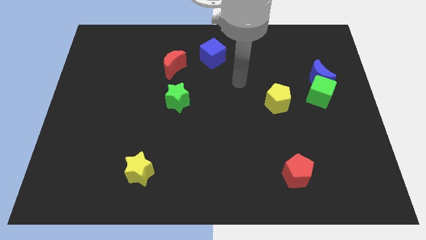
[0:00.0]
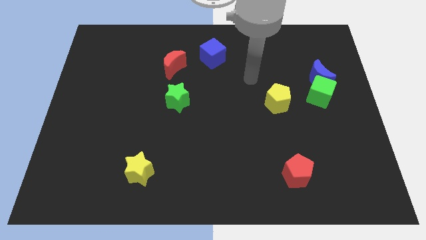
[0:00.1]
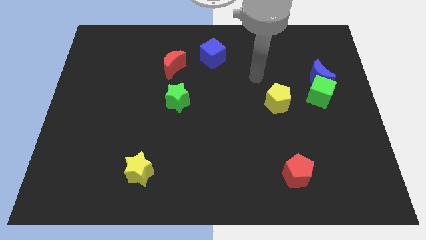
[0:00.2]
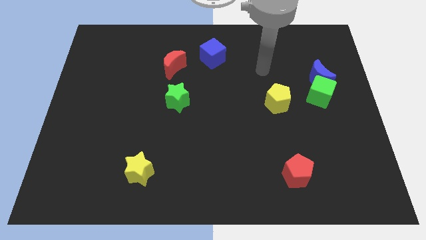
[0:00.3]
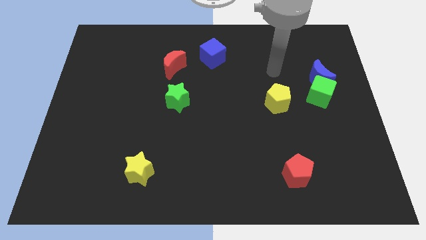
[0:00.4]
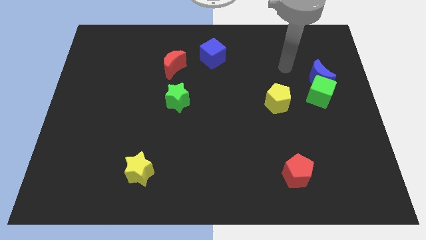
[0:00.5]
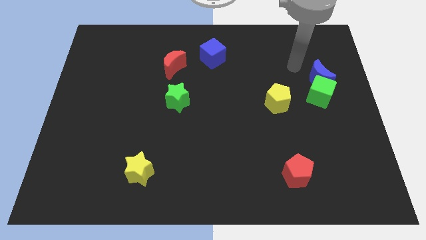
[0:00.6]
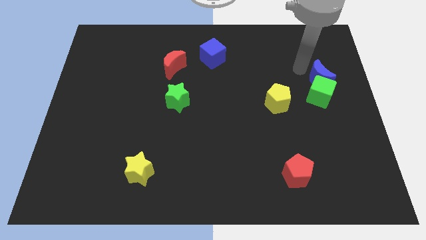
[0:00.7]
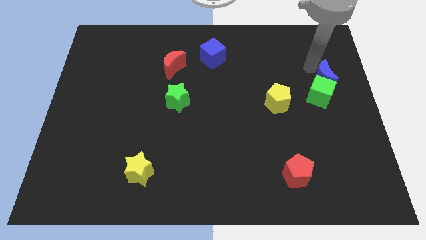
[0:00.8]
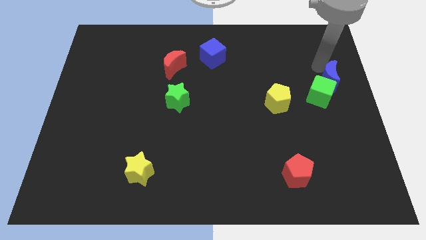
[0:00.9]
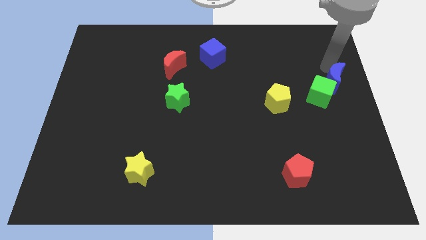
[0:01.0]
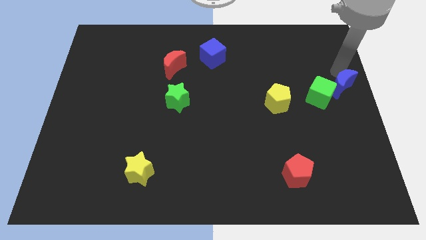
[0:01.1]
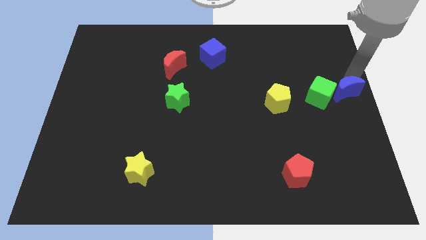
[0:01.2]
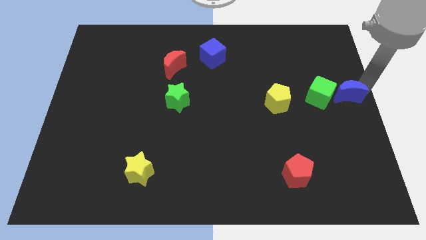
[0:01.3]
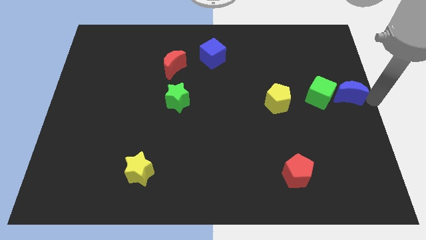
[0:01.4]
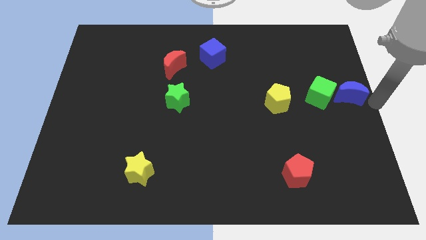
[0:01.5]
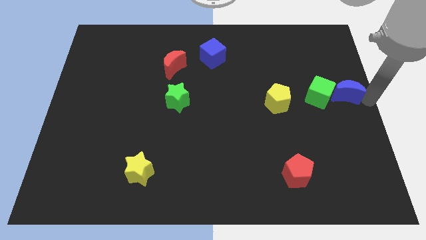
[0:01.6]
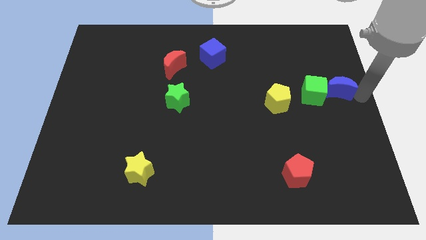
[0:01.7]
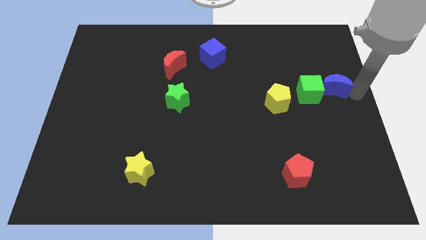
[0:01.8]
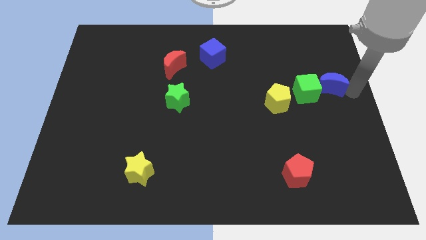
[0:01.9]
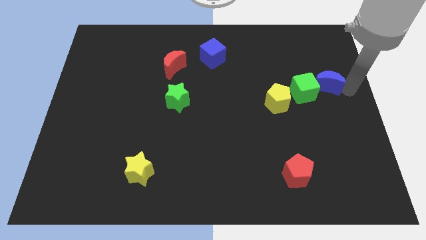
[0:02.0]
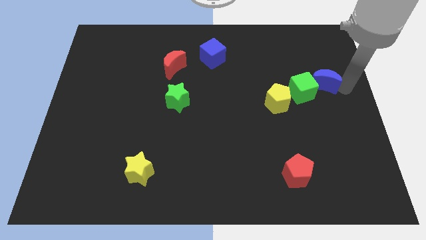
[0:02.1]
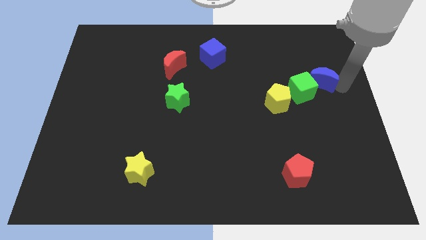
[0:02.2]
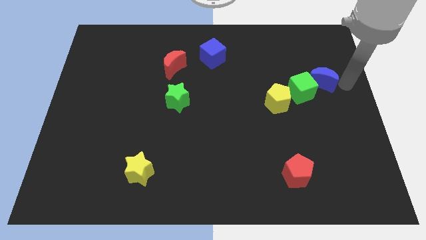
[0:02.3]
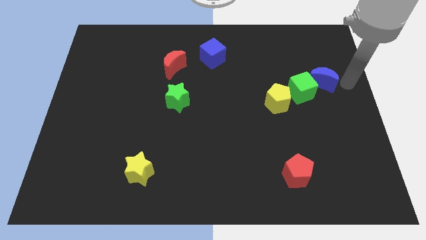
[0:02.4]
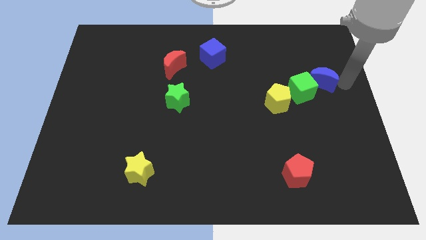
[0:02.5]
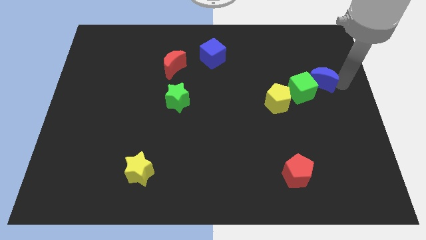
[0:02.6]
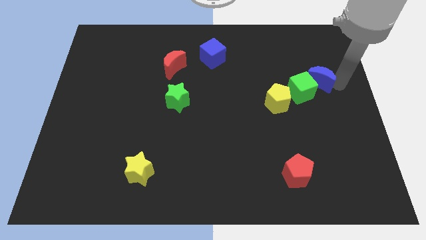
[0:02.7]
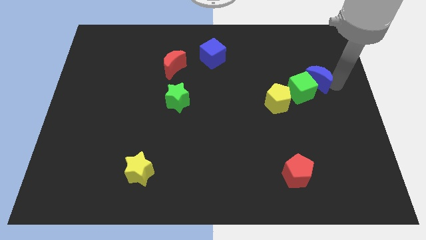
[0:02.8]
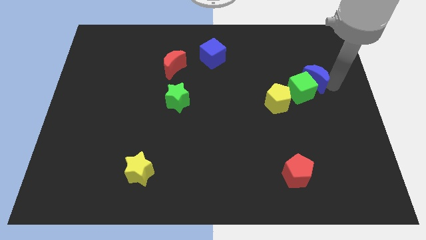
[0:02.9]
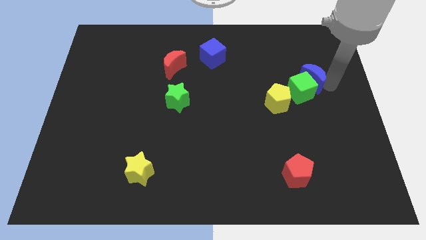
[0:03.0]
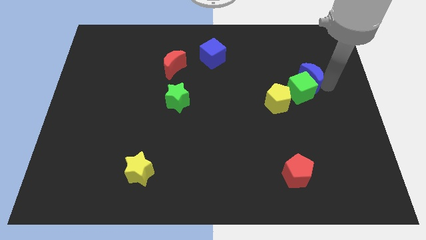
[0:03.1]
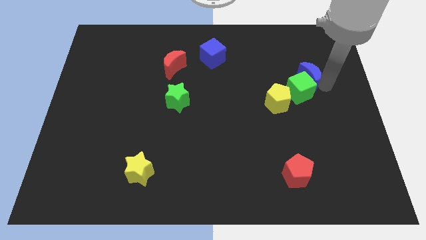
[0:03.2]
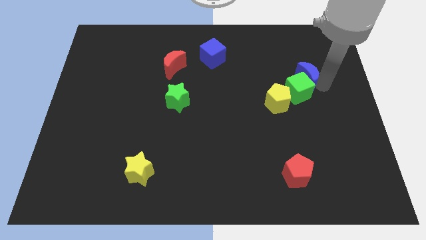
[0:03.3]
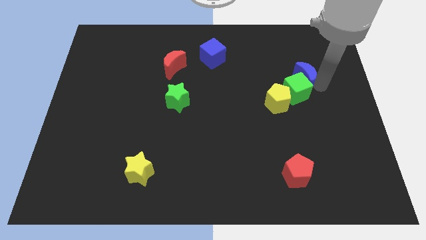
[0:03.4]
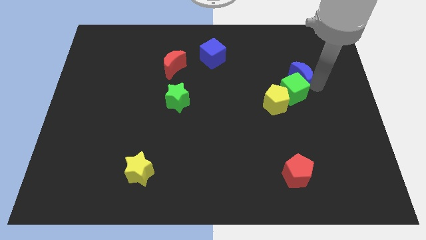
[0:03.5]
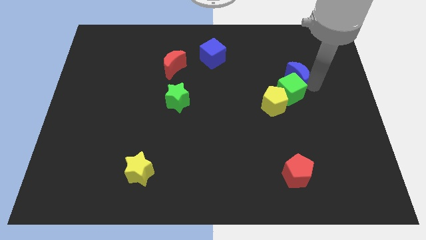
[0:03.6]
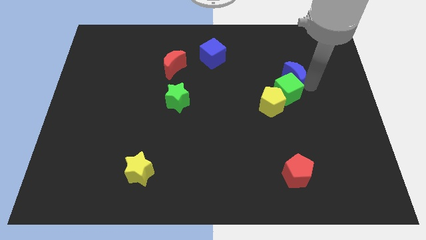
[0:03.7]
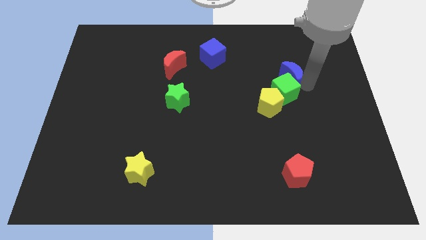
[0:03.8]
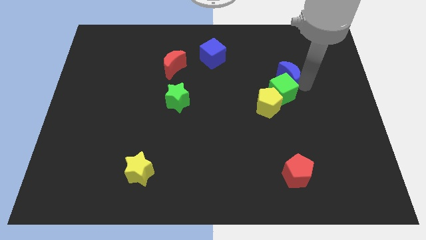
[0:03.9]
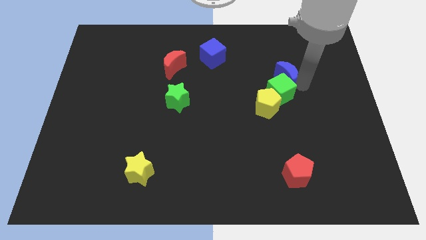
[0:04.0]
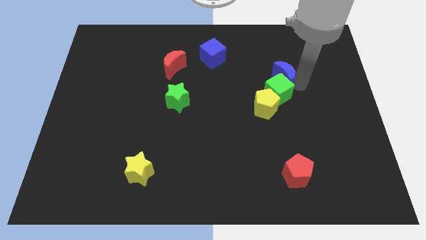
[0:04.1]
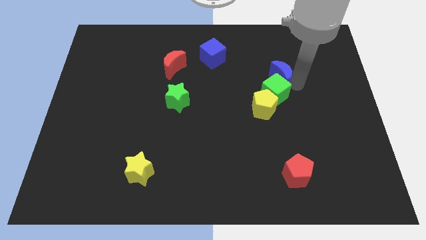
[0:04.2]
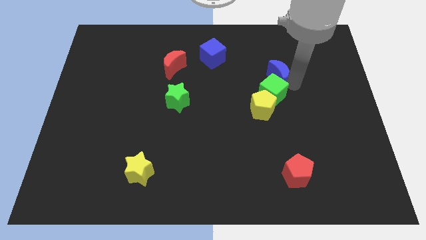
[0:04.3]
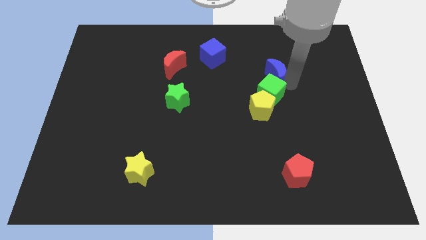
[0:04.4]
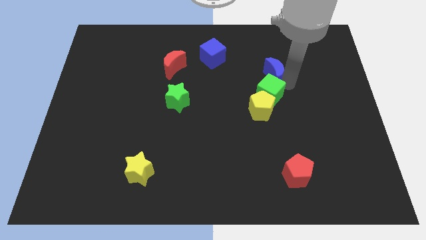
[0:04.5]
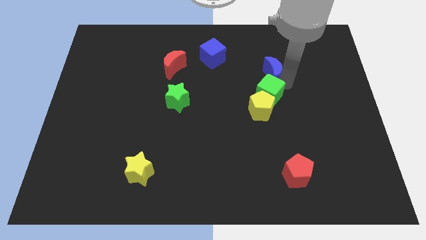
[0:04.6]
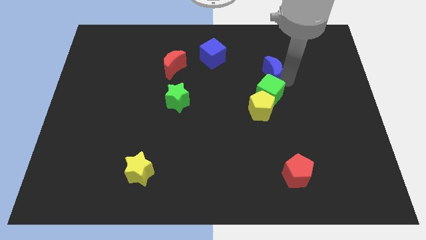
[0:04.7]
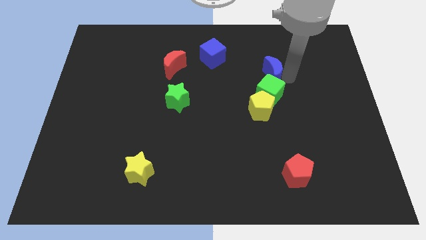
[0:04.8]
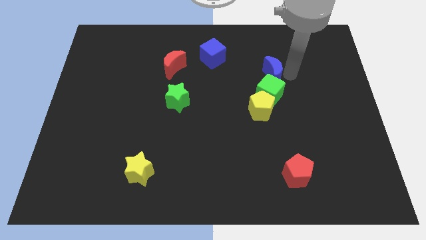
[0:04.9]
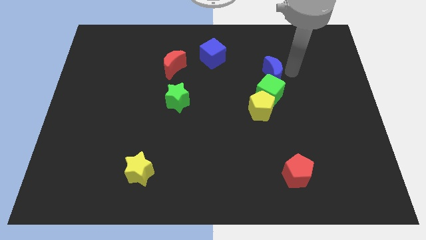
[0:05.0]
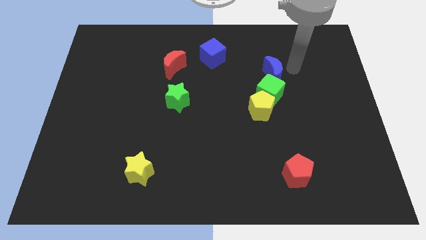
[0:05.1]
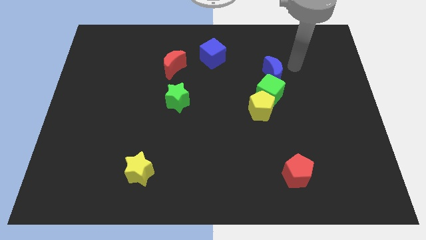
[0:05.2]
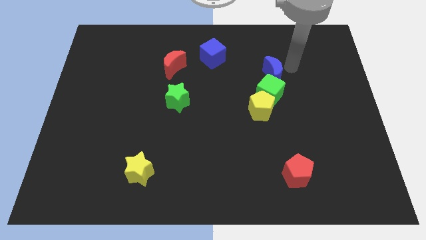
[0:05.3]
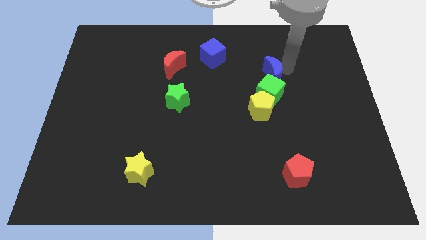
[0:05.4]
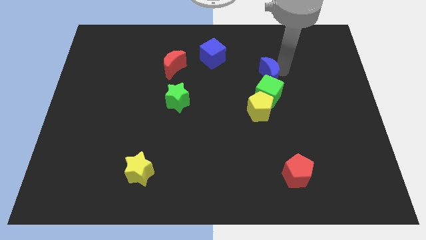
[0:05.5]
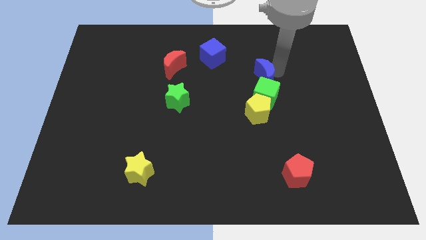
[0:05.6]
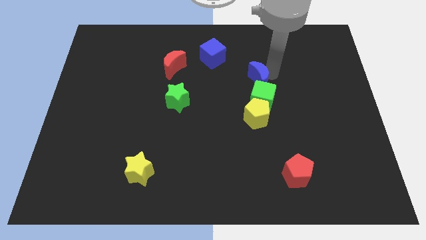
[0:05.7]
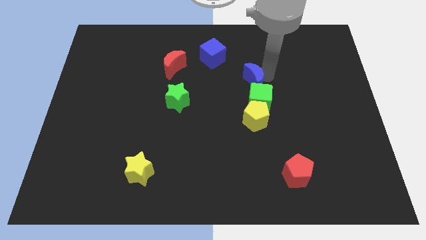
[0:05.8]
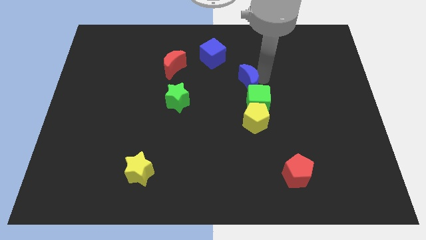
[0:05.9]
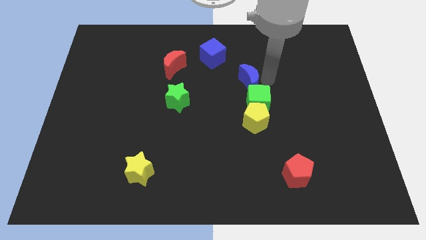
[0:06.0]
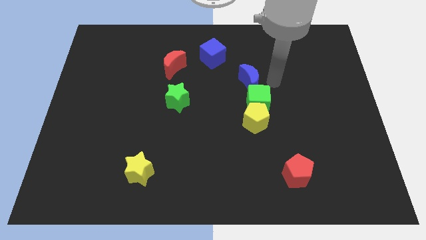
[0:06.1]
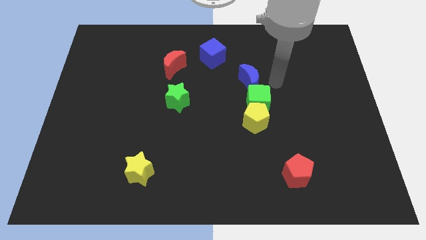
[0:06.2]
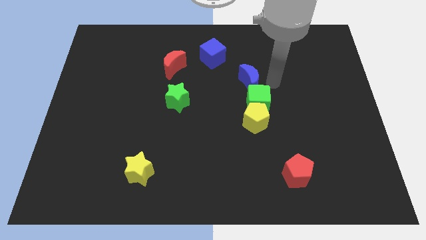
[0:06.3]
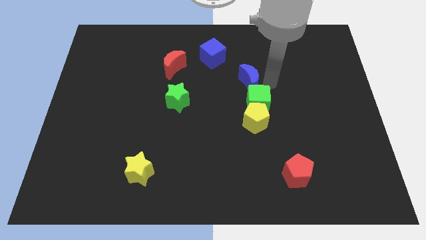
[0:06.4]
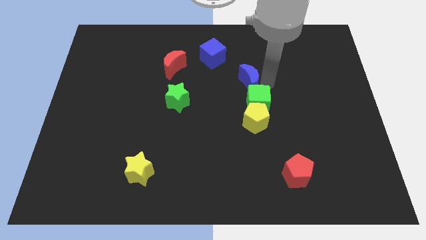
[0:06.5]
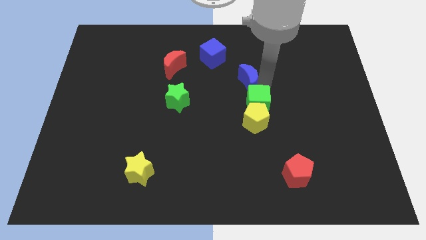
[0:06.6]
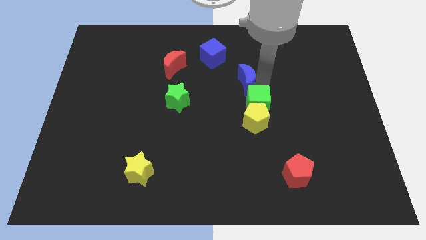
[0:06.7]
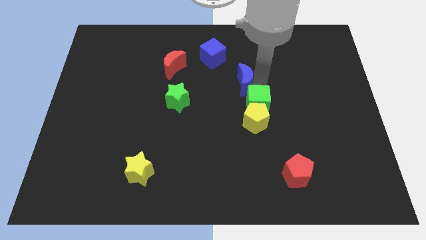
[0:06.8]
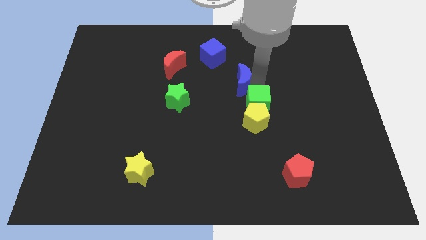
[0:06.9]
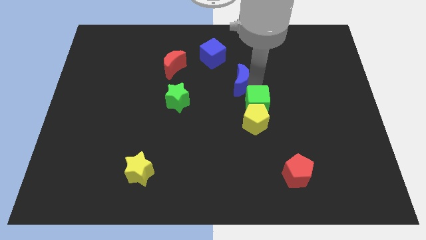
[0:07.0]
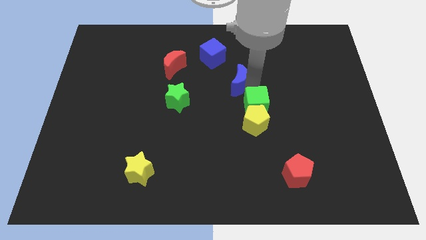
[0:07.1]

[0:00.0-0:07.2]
move the blue moon to the left

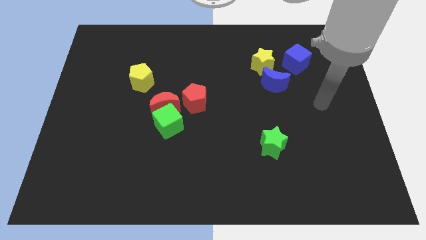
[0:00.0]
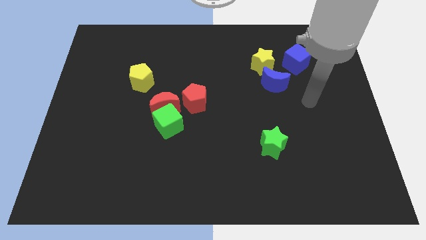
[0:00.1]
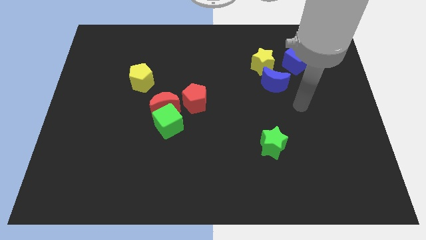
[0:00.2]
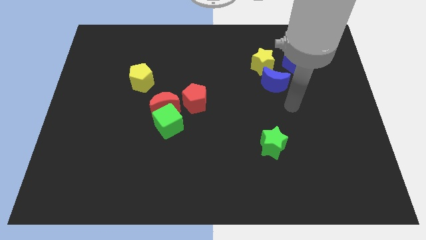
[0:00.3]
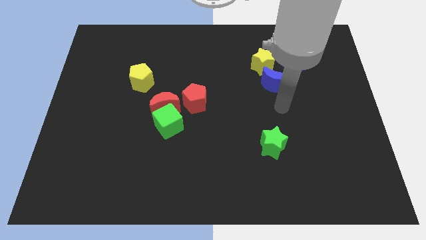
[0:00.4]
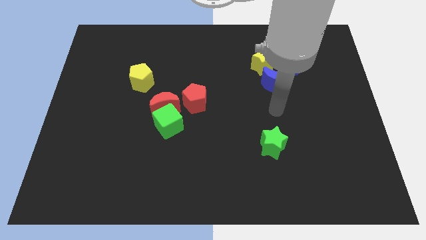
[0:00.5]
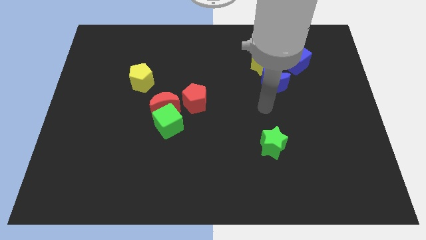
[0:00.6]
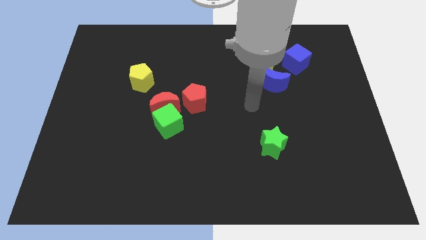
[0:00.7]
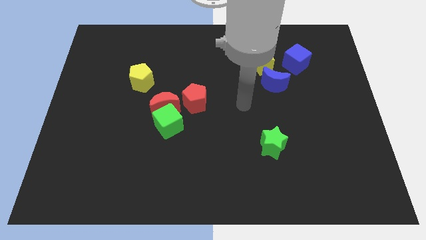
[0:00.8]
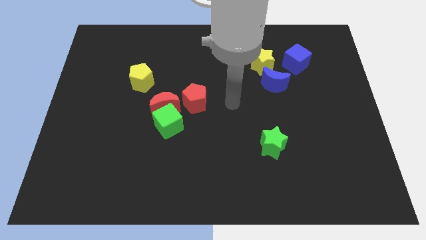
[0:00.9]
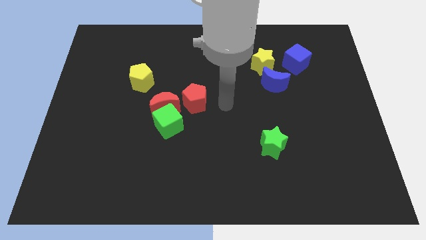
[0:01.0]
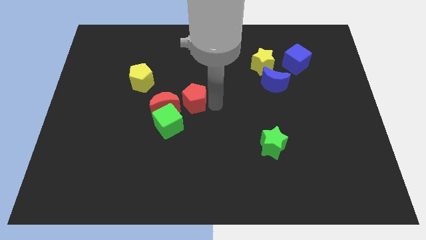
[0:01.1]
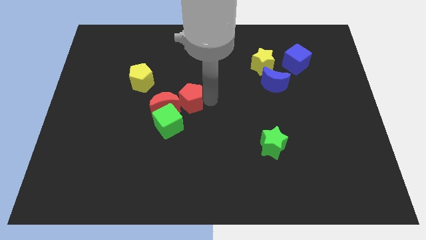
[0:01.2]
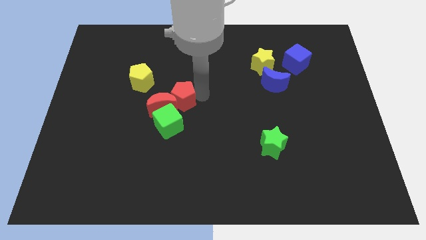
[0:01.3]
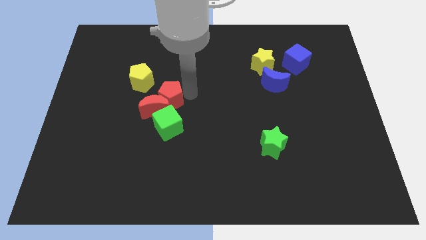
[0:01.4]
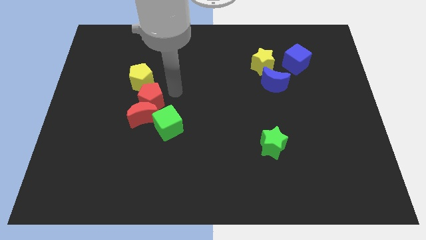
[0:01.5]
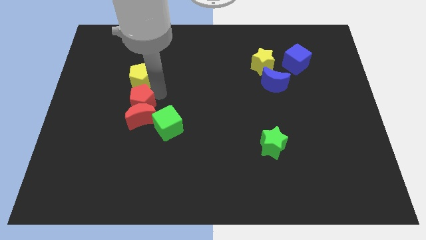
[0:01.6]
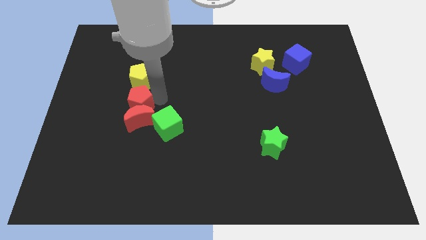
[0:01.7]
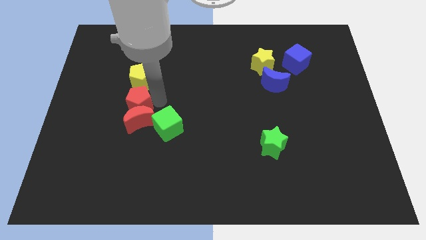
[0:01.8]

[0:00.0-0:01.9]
slide the red moon a bit down and then left
